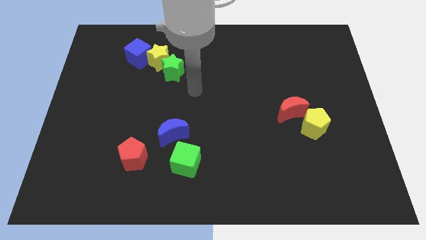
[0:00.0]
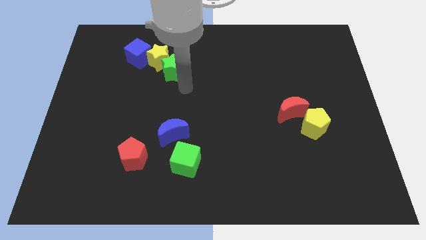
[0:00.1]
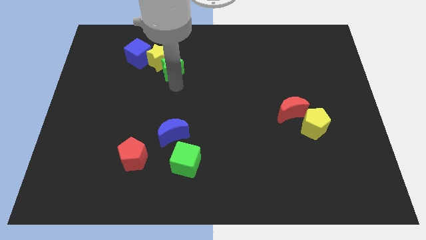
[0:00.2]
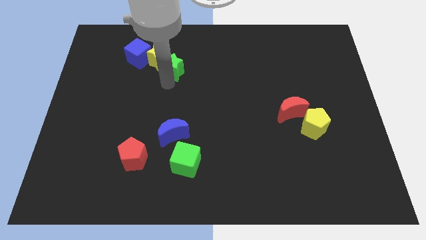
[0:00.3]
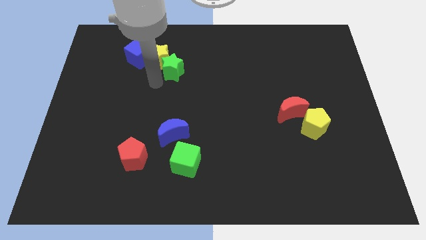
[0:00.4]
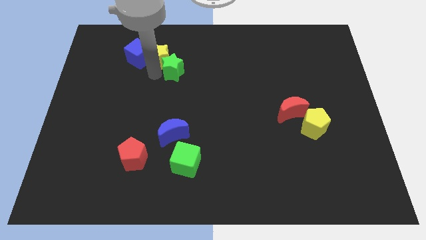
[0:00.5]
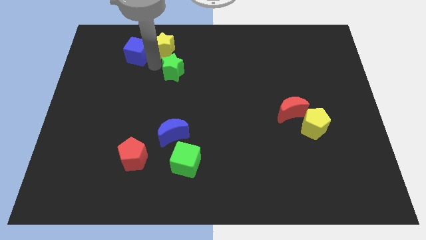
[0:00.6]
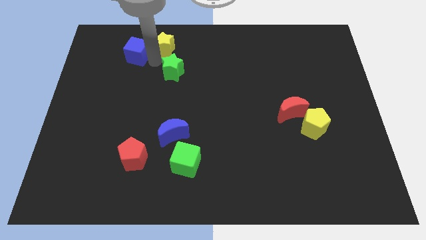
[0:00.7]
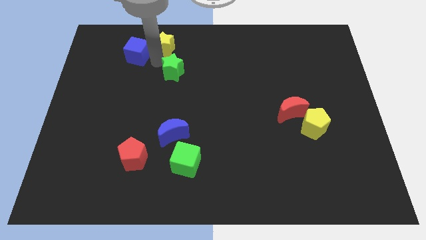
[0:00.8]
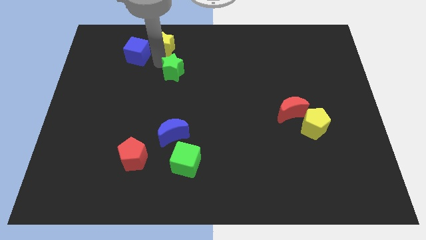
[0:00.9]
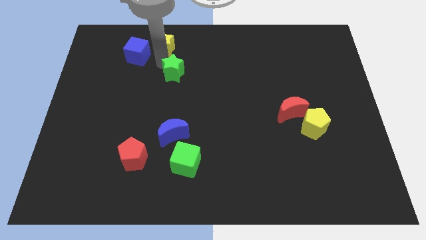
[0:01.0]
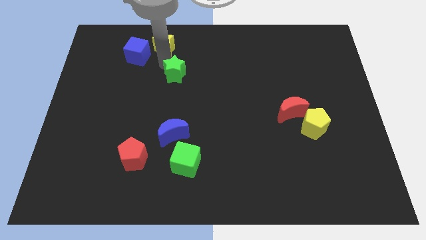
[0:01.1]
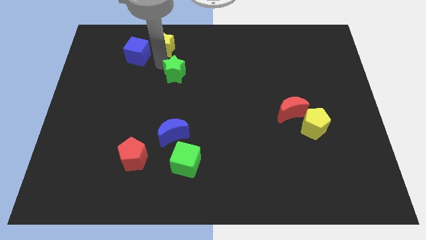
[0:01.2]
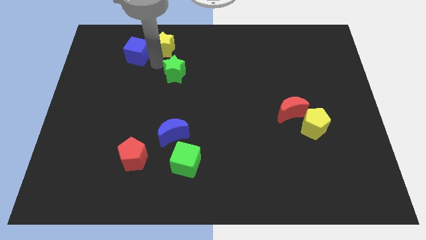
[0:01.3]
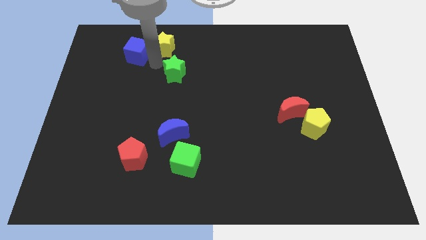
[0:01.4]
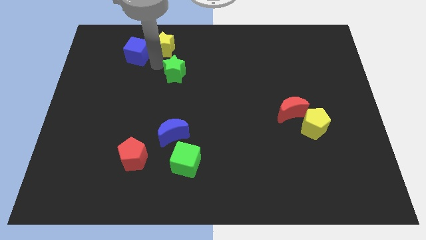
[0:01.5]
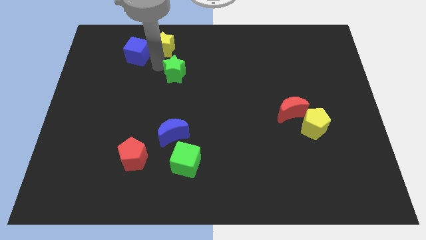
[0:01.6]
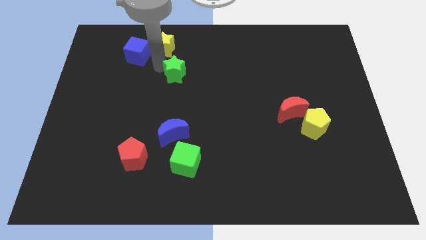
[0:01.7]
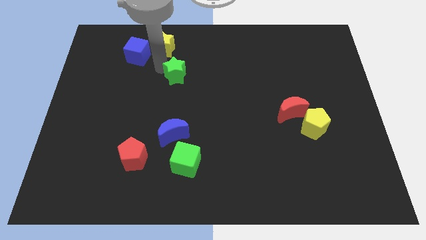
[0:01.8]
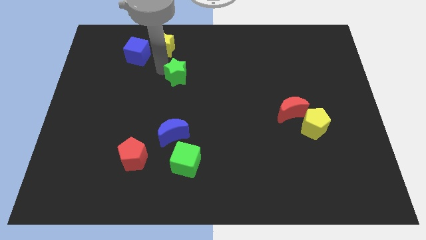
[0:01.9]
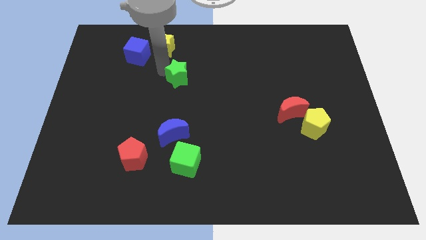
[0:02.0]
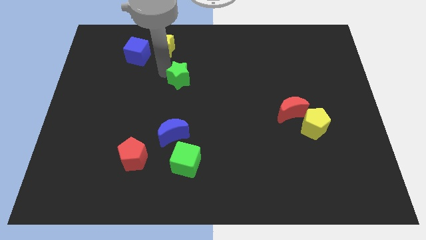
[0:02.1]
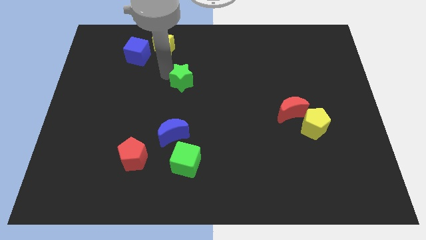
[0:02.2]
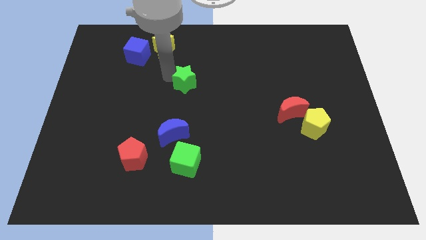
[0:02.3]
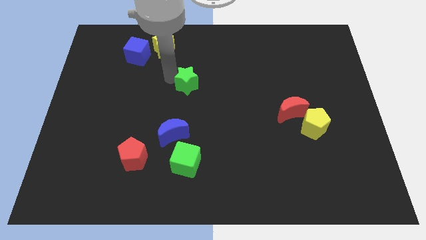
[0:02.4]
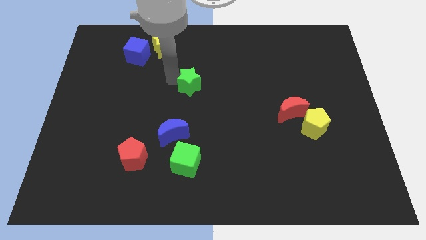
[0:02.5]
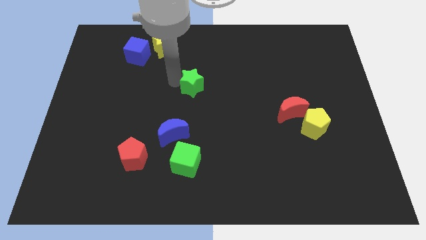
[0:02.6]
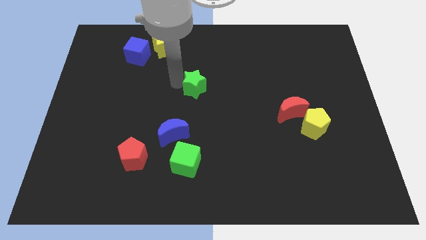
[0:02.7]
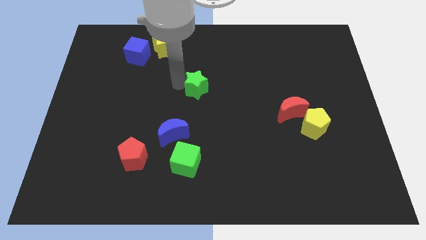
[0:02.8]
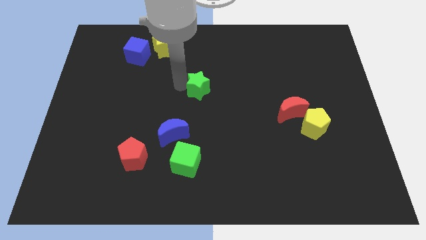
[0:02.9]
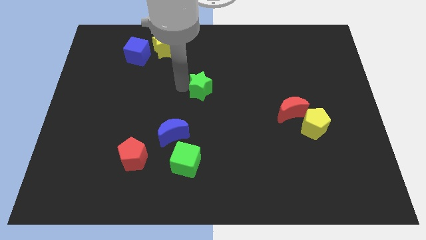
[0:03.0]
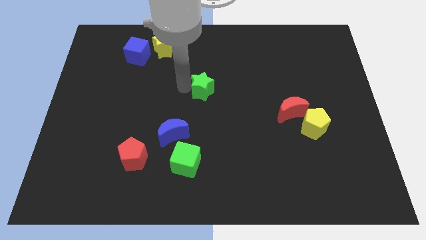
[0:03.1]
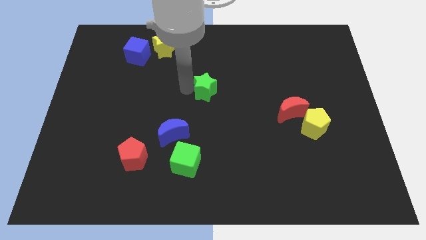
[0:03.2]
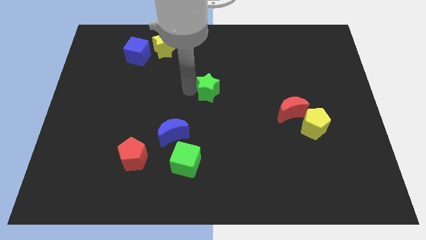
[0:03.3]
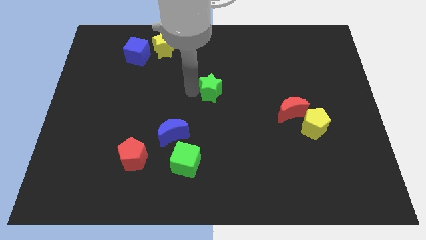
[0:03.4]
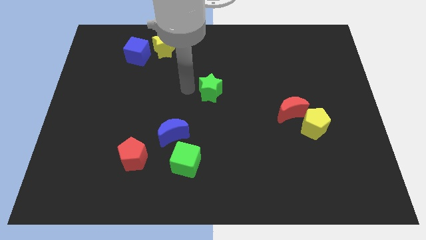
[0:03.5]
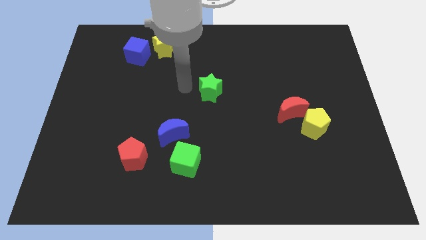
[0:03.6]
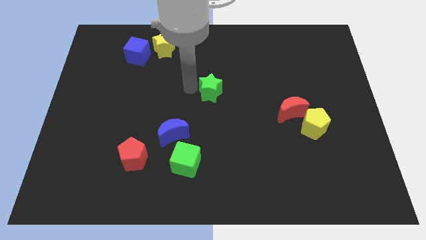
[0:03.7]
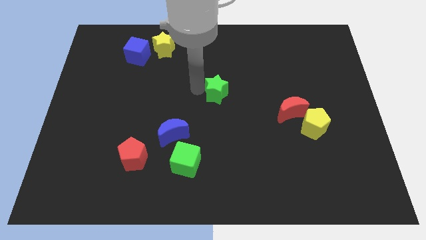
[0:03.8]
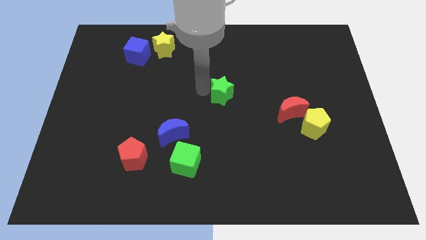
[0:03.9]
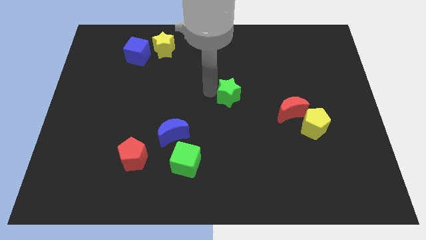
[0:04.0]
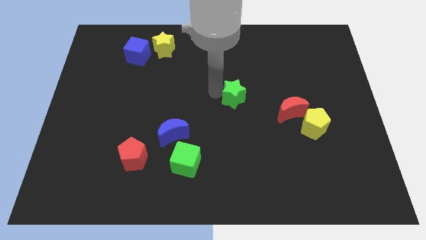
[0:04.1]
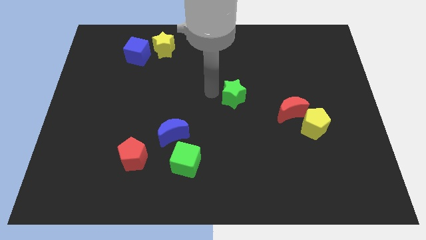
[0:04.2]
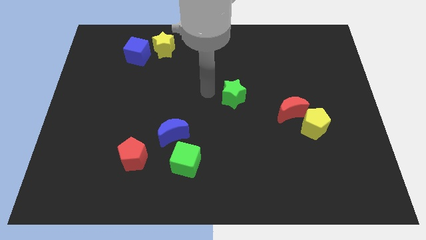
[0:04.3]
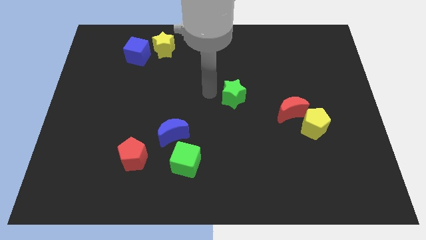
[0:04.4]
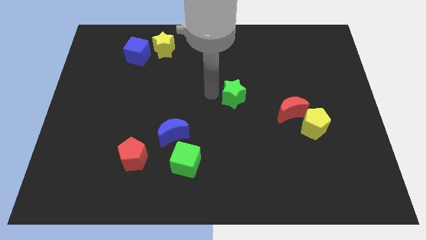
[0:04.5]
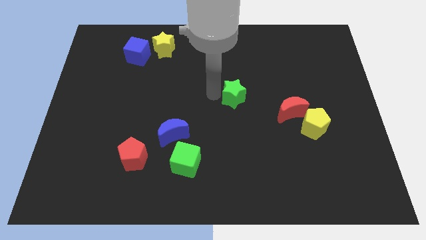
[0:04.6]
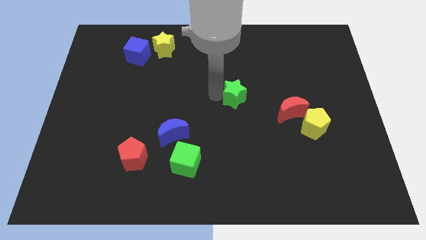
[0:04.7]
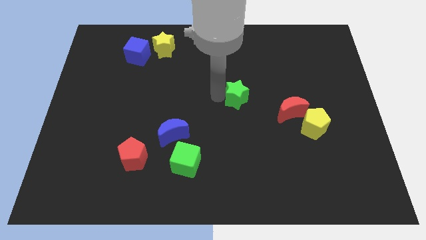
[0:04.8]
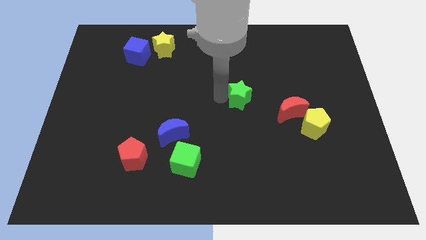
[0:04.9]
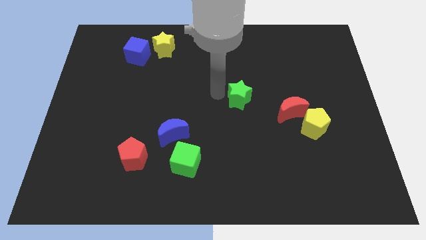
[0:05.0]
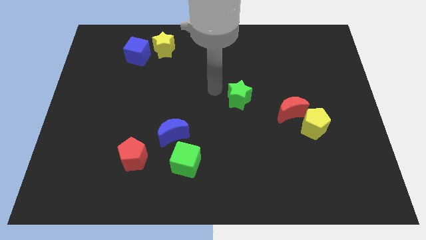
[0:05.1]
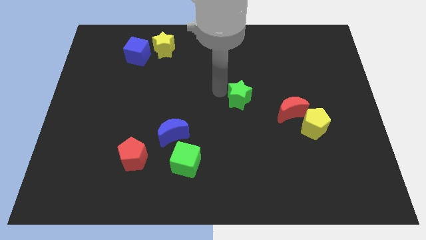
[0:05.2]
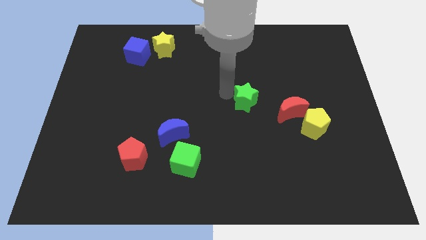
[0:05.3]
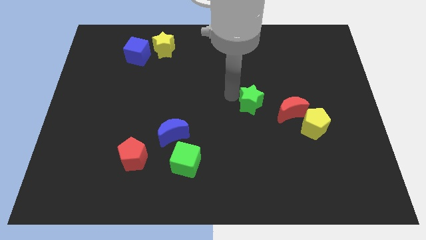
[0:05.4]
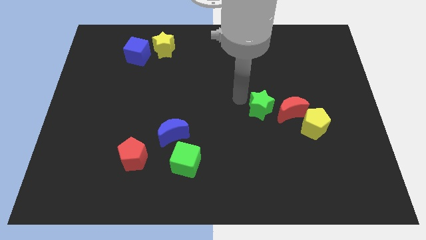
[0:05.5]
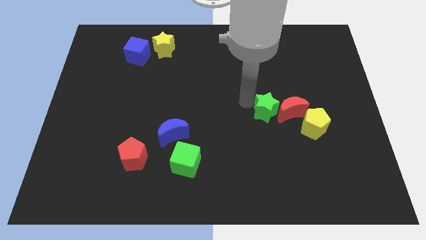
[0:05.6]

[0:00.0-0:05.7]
move the green star close to the red moon
